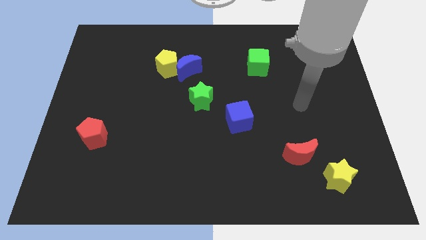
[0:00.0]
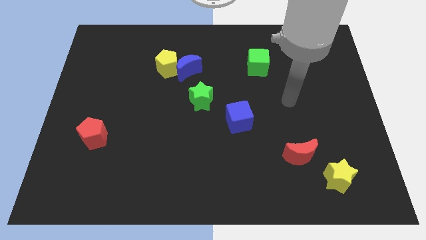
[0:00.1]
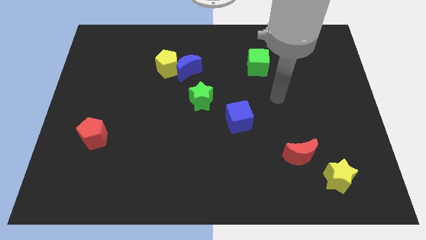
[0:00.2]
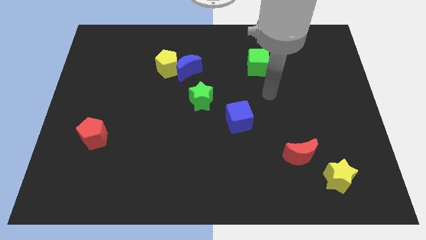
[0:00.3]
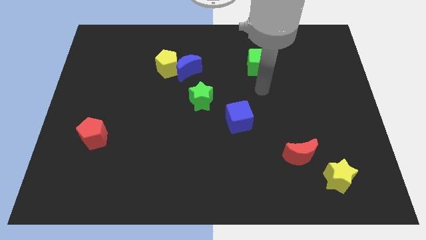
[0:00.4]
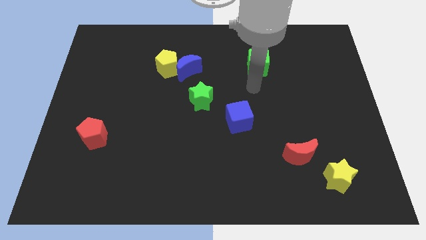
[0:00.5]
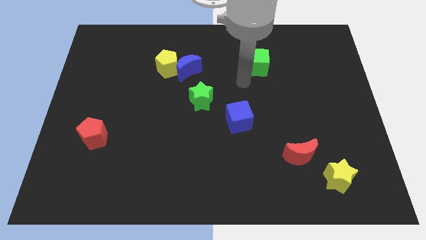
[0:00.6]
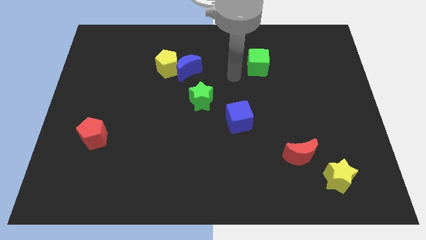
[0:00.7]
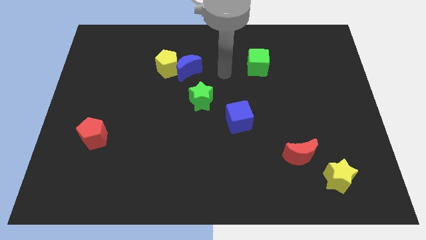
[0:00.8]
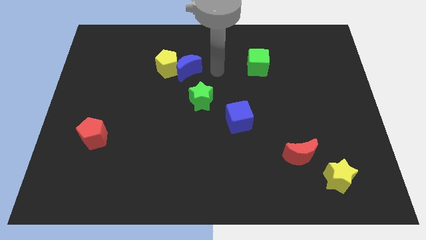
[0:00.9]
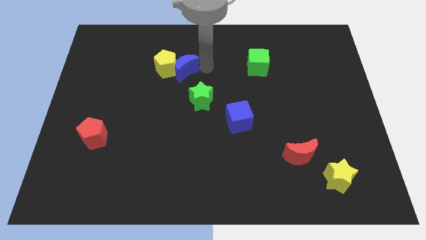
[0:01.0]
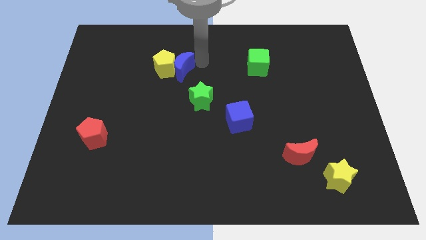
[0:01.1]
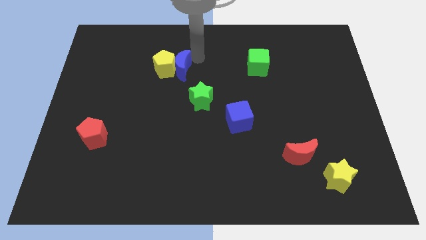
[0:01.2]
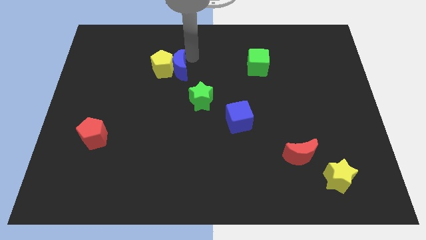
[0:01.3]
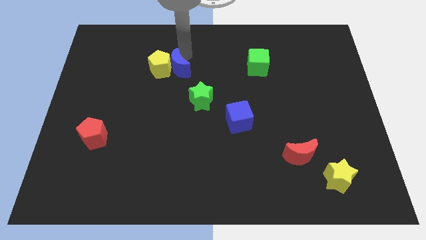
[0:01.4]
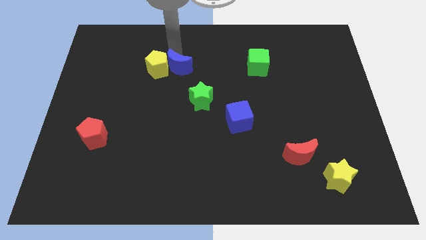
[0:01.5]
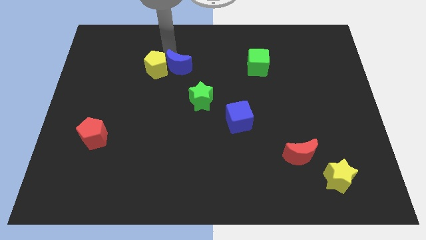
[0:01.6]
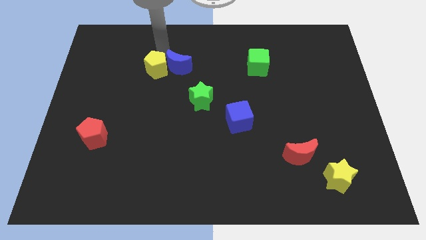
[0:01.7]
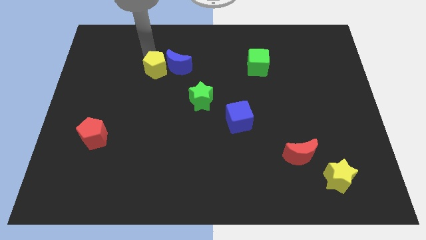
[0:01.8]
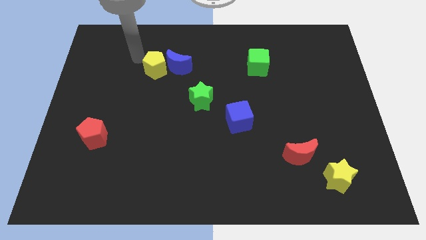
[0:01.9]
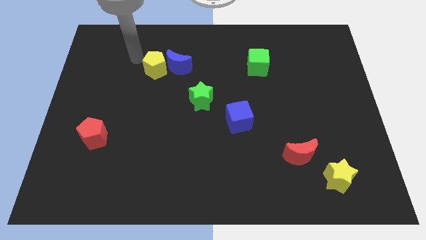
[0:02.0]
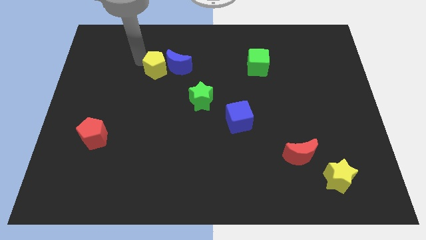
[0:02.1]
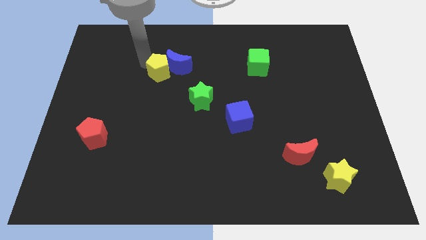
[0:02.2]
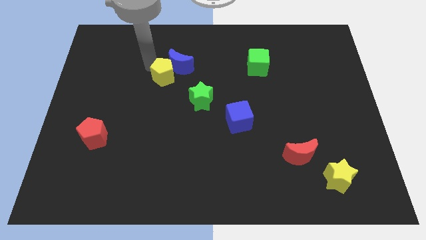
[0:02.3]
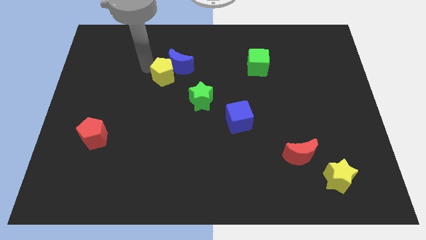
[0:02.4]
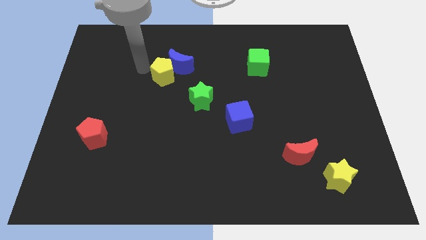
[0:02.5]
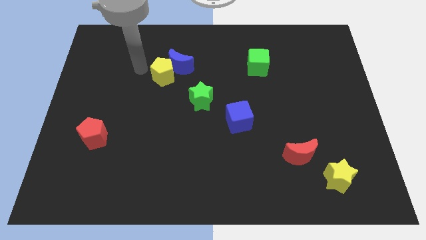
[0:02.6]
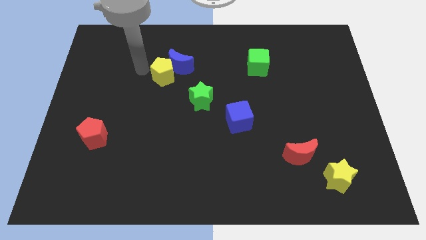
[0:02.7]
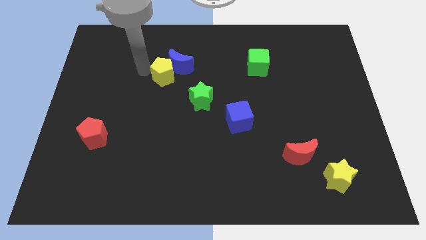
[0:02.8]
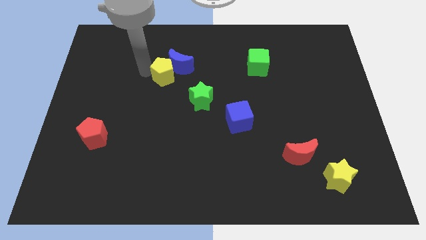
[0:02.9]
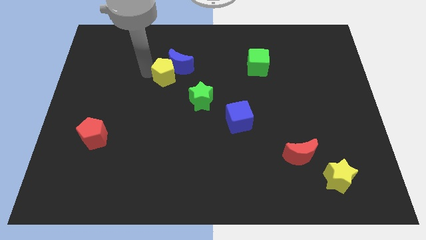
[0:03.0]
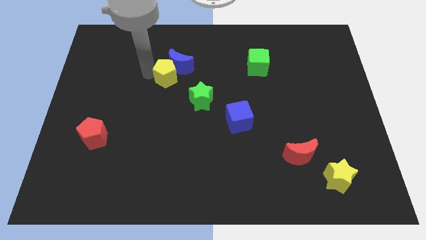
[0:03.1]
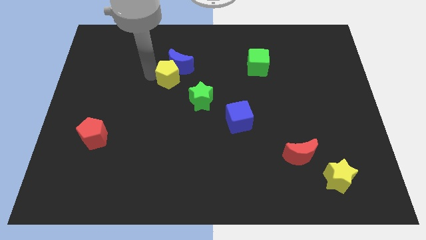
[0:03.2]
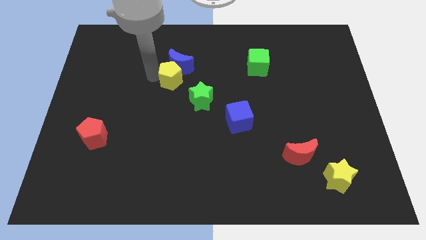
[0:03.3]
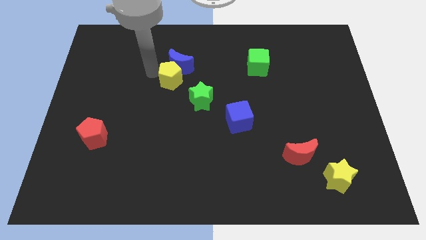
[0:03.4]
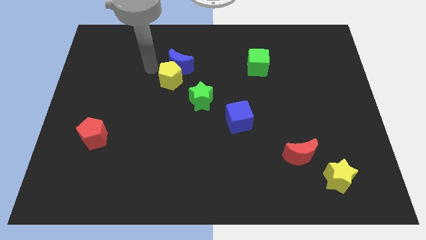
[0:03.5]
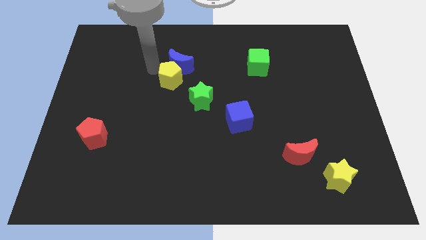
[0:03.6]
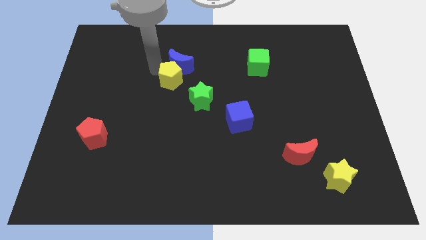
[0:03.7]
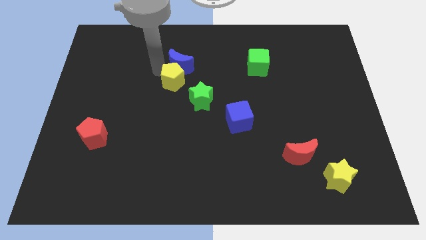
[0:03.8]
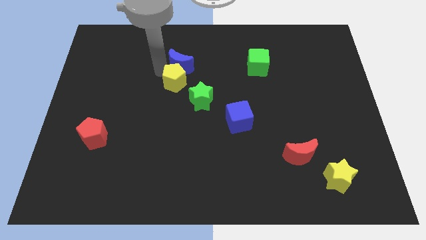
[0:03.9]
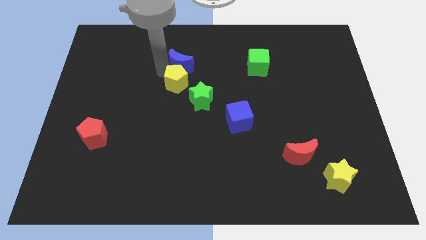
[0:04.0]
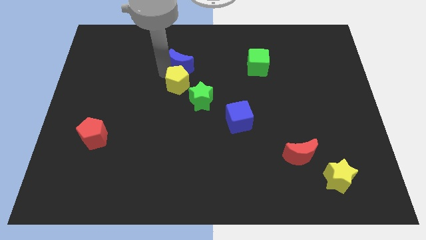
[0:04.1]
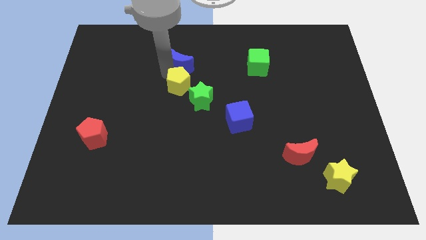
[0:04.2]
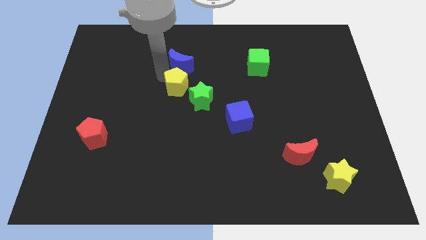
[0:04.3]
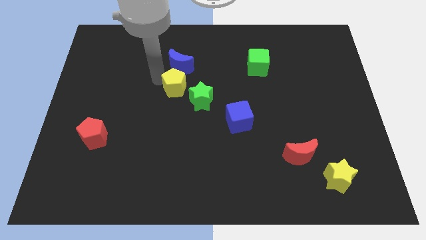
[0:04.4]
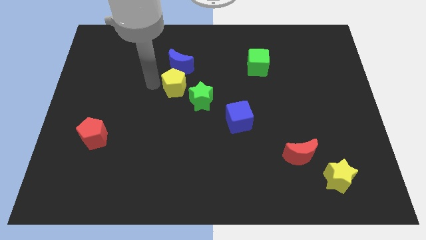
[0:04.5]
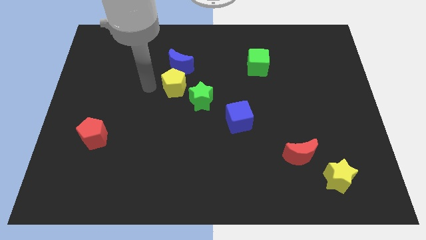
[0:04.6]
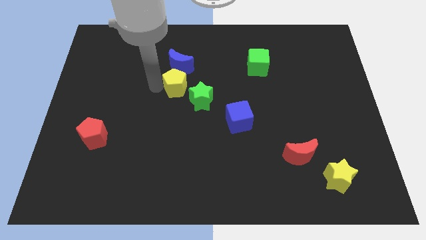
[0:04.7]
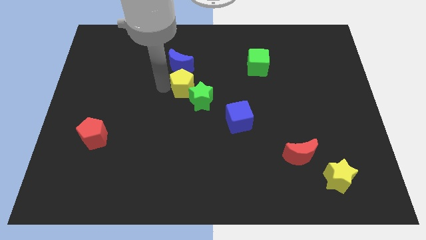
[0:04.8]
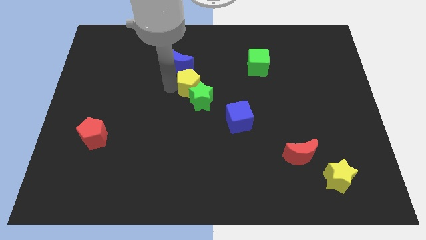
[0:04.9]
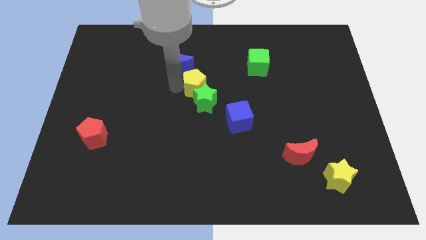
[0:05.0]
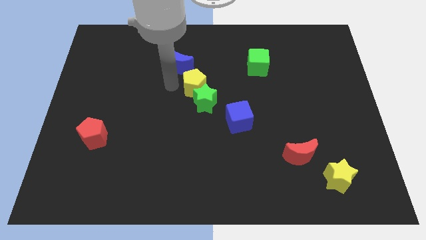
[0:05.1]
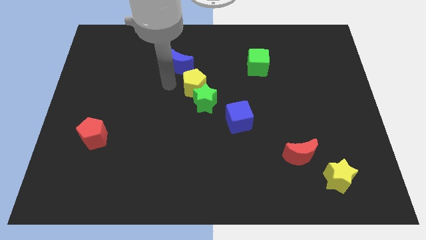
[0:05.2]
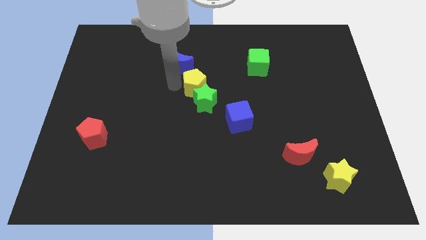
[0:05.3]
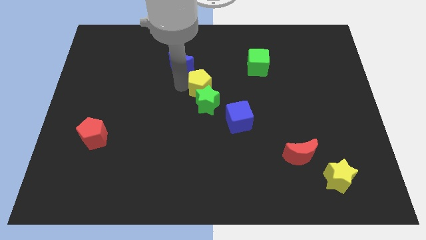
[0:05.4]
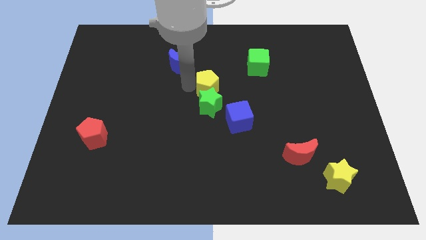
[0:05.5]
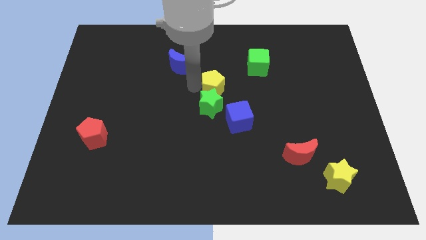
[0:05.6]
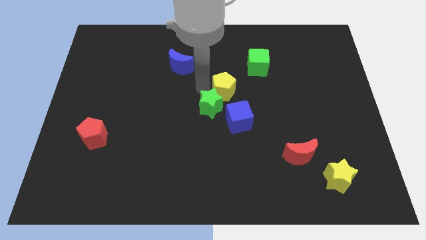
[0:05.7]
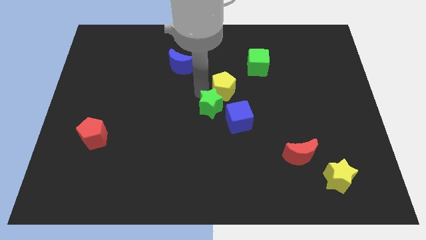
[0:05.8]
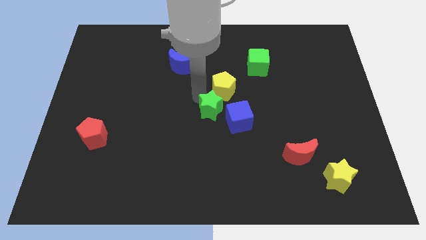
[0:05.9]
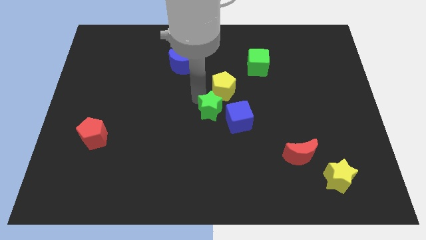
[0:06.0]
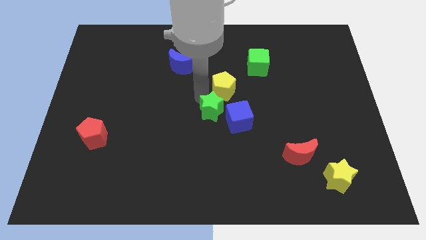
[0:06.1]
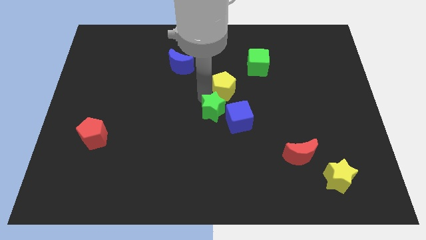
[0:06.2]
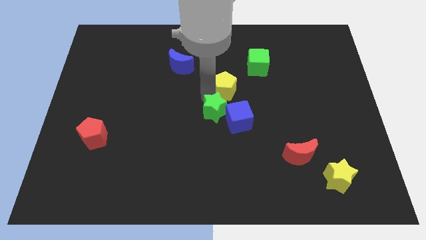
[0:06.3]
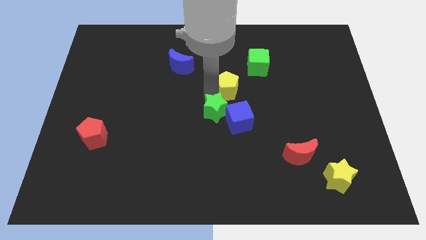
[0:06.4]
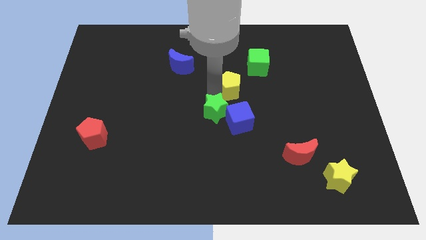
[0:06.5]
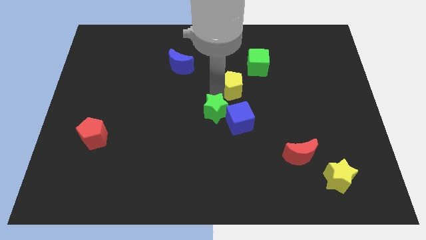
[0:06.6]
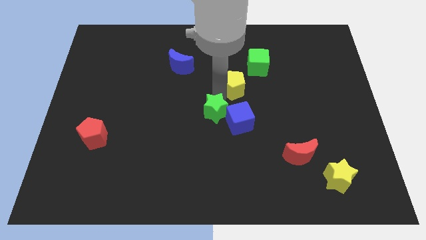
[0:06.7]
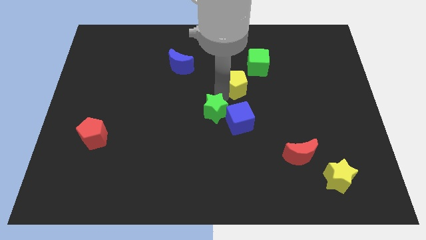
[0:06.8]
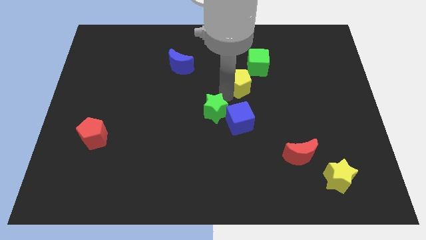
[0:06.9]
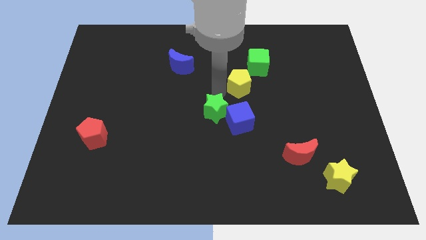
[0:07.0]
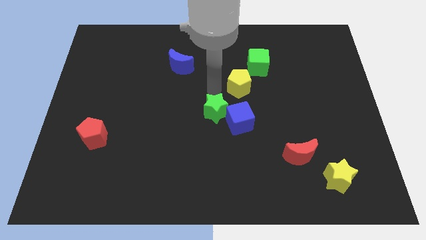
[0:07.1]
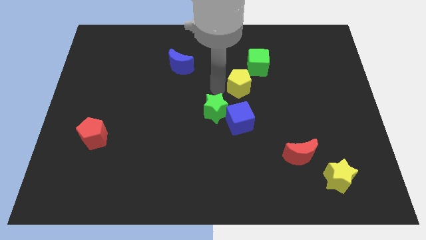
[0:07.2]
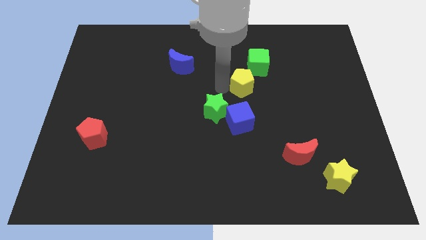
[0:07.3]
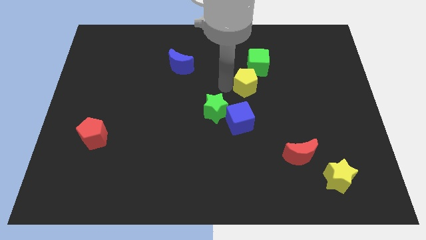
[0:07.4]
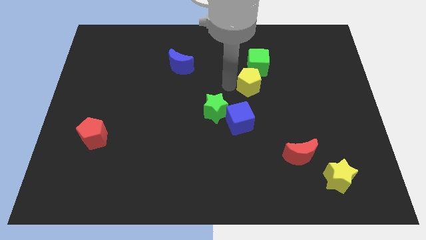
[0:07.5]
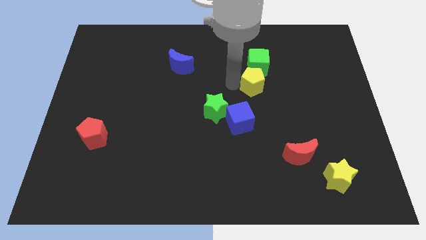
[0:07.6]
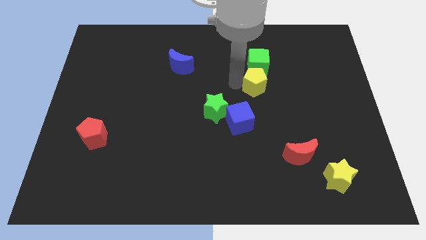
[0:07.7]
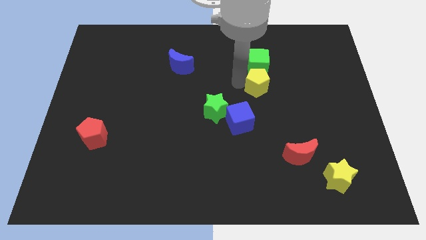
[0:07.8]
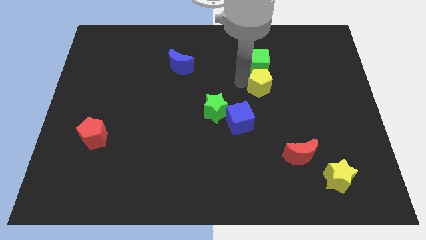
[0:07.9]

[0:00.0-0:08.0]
put the yellow pentagon to the bottom right of the green cube
